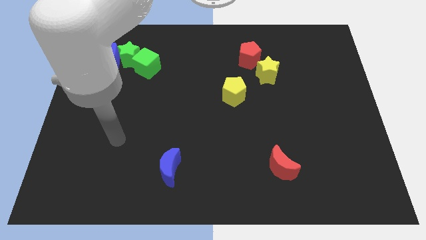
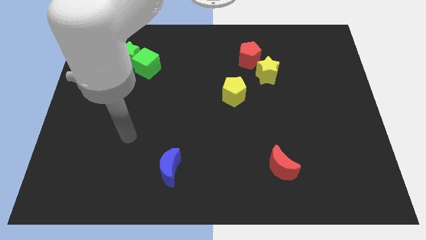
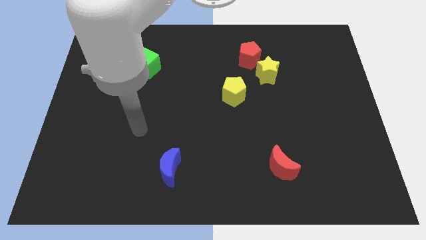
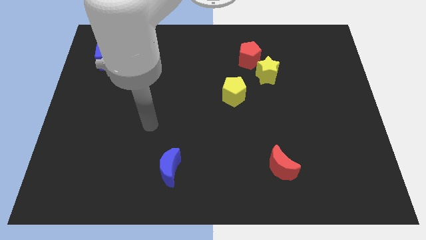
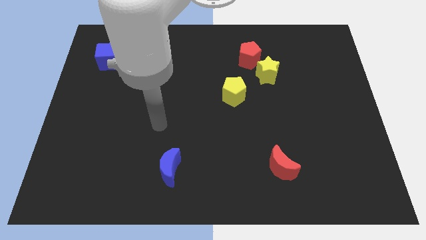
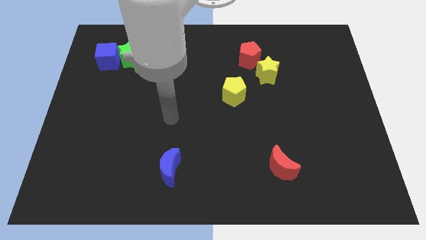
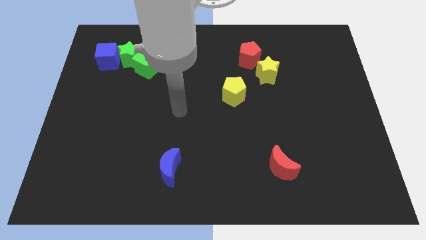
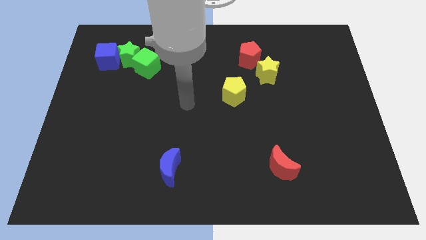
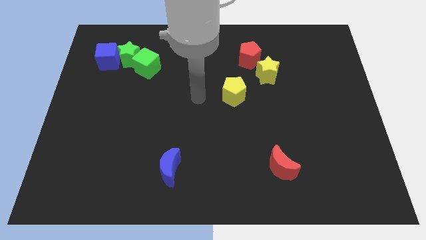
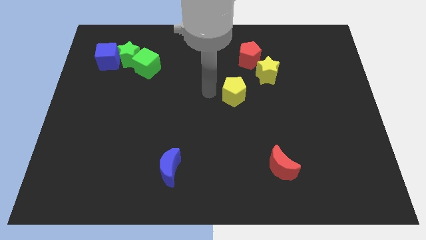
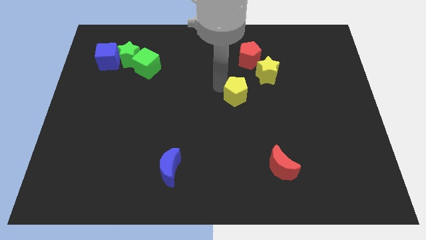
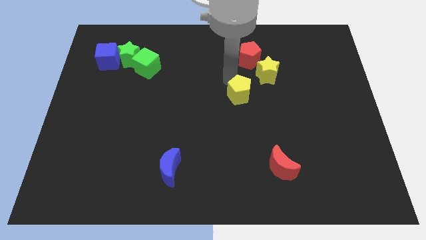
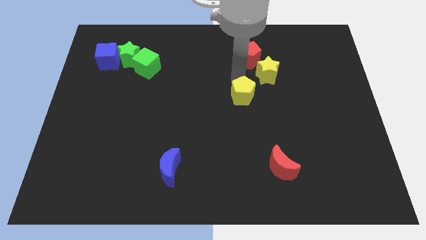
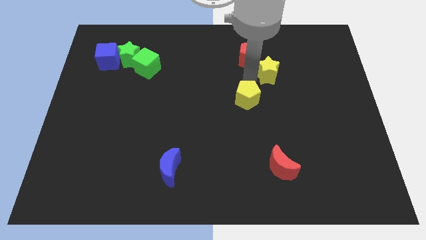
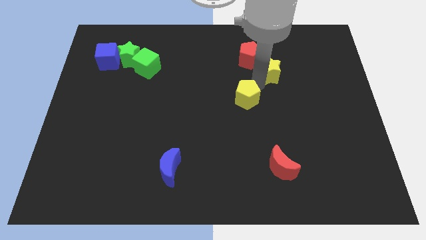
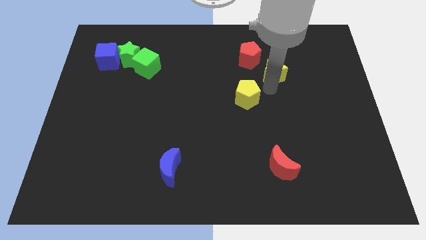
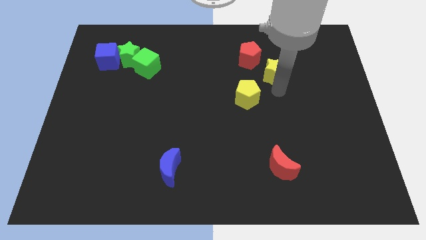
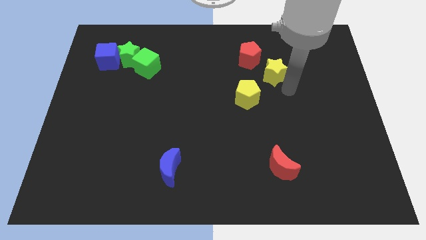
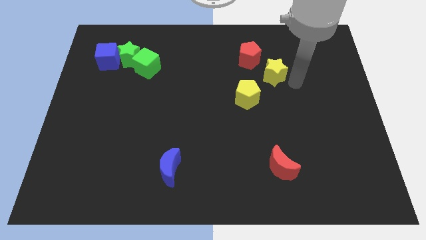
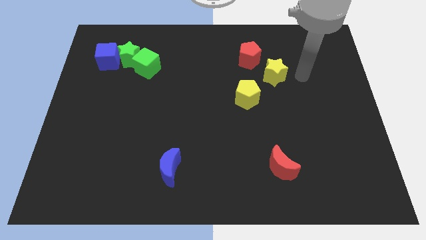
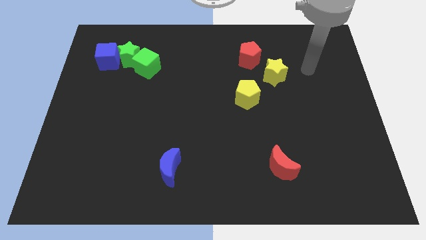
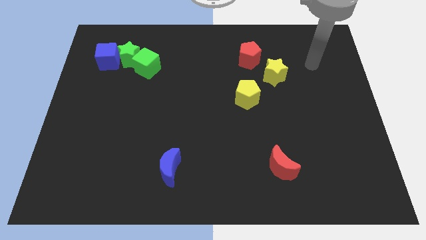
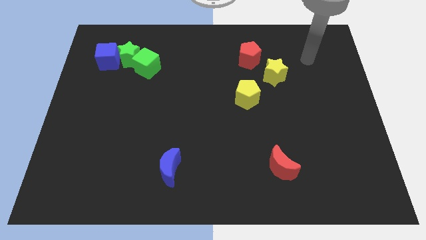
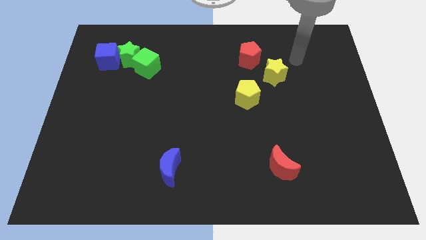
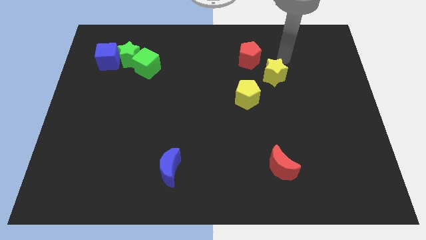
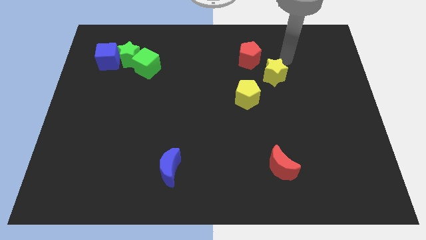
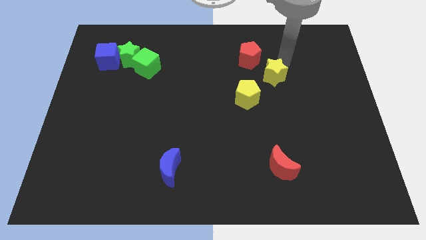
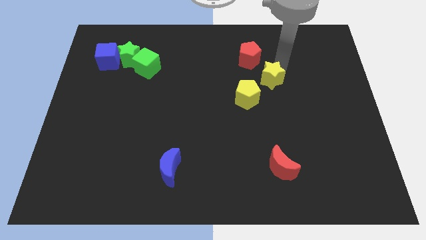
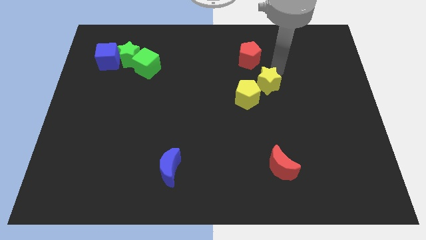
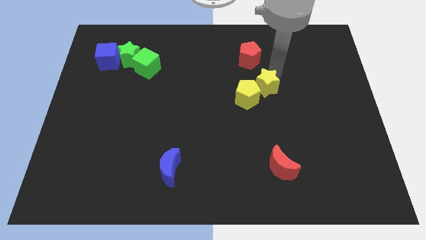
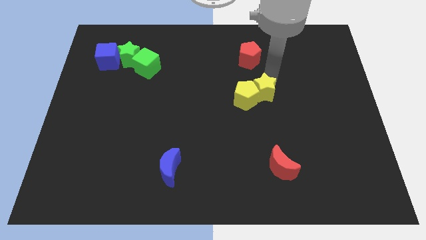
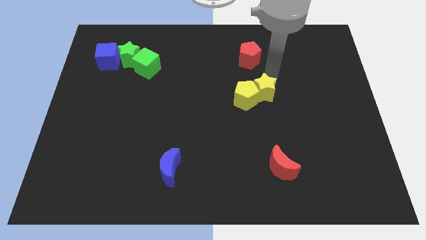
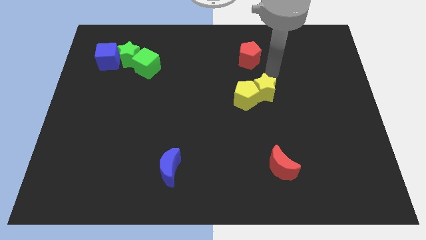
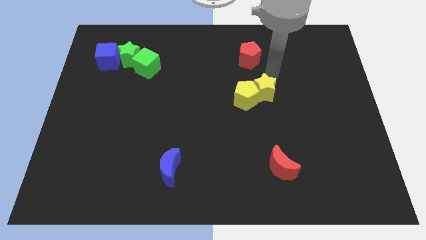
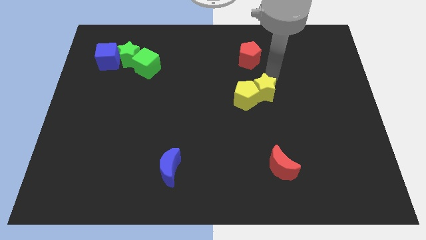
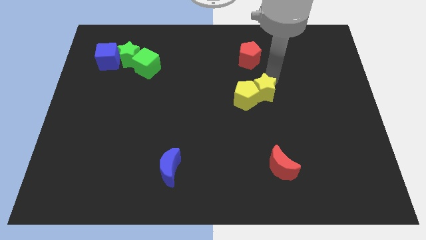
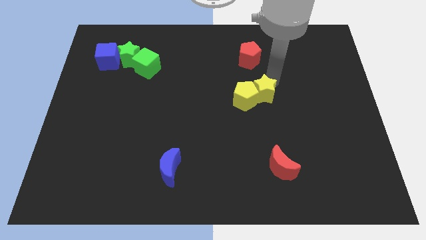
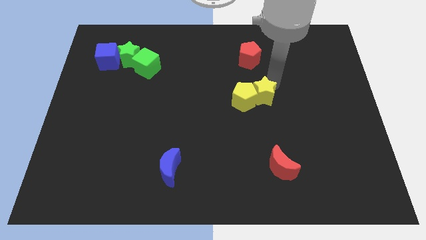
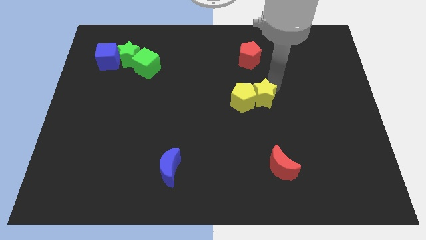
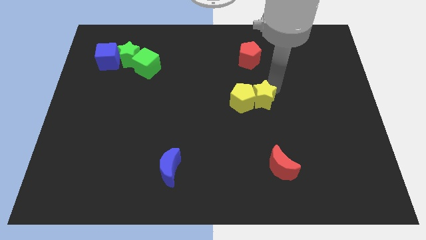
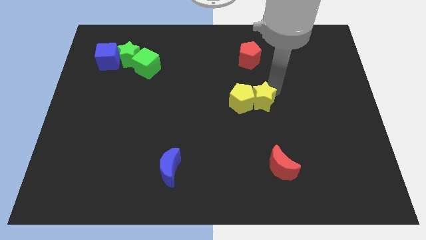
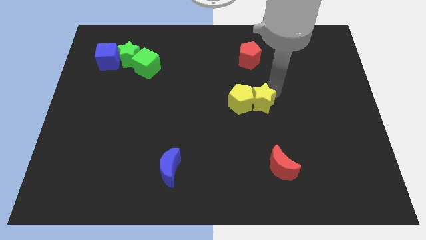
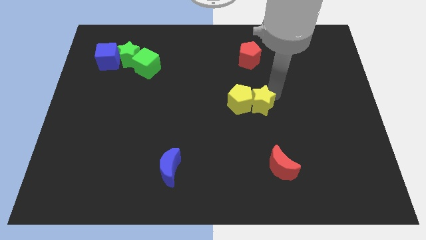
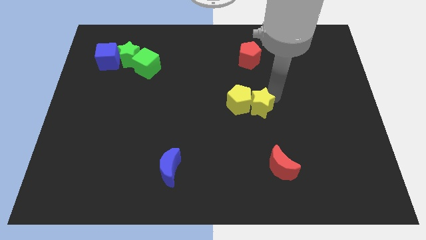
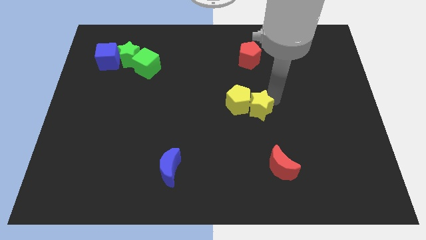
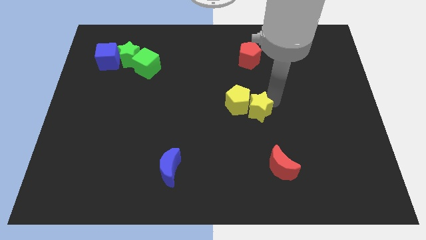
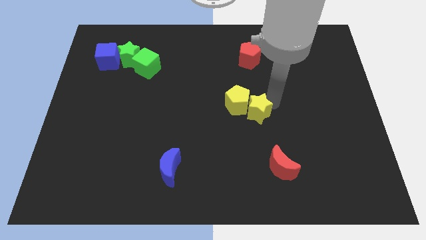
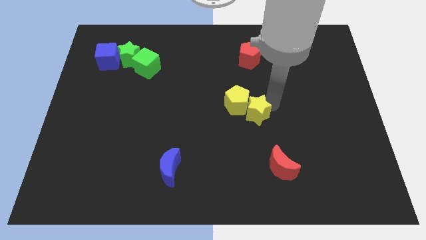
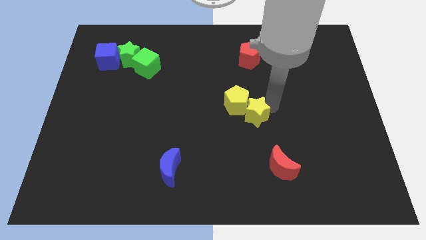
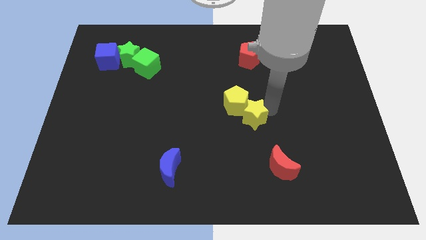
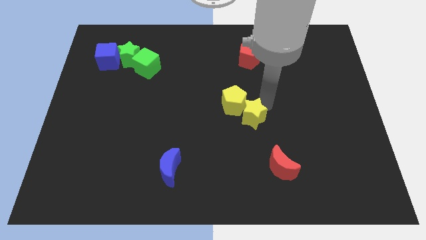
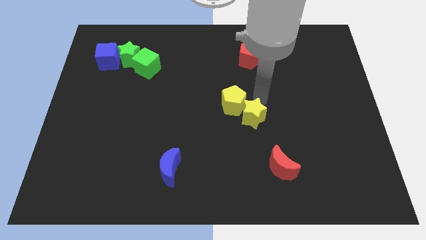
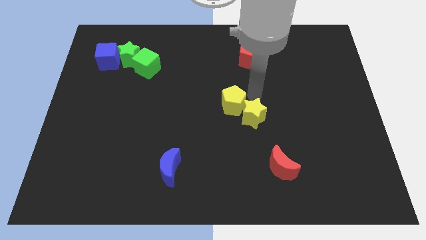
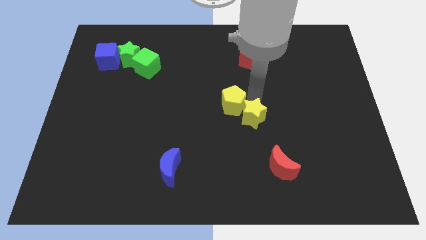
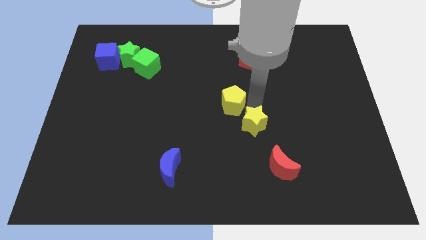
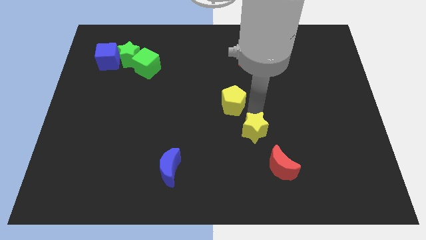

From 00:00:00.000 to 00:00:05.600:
put the yellow star diagonally up and to the left of the red moon

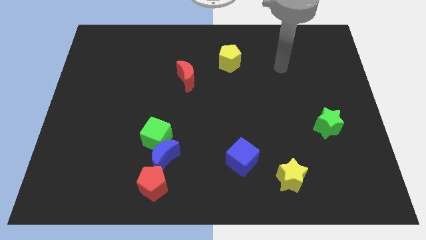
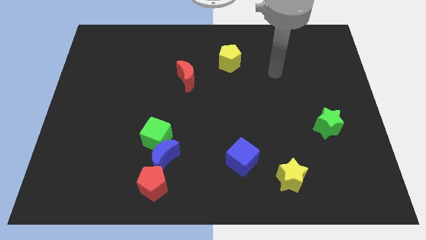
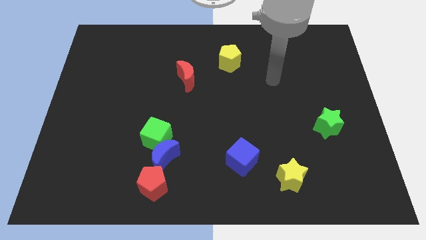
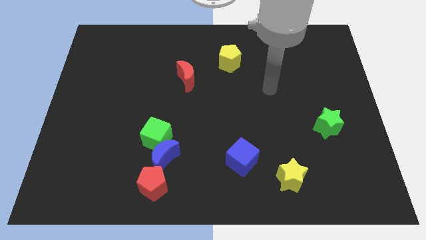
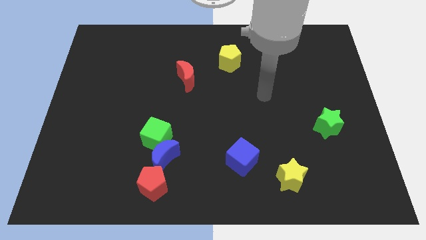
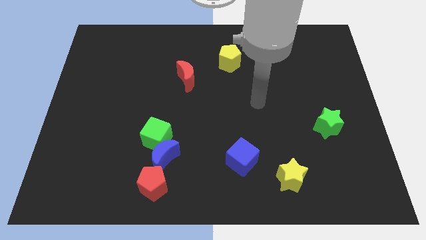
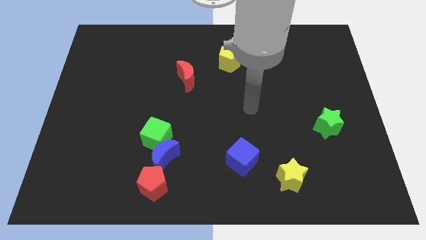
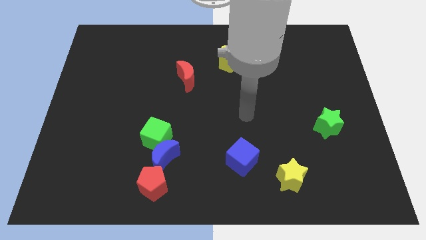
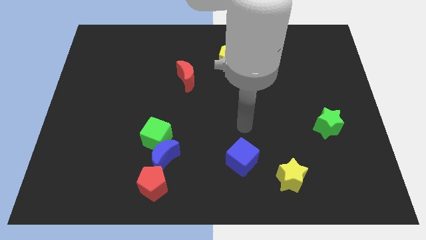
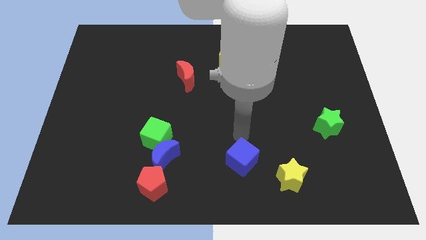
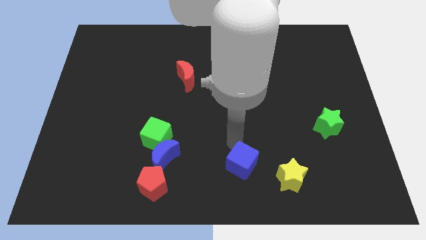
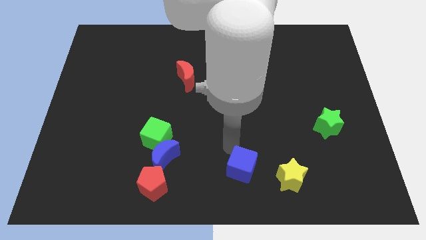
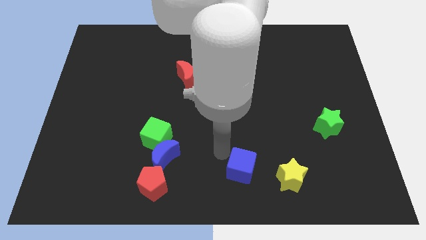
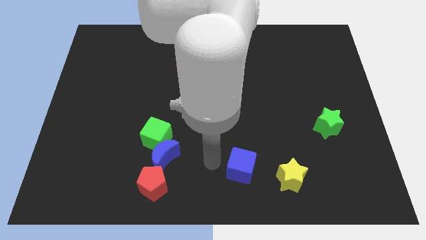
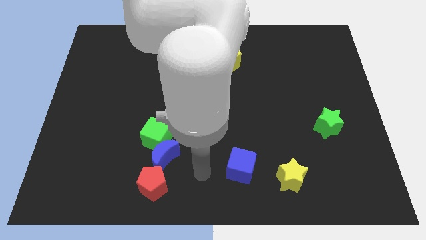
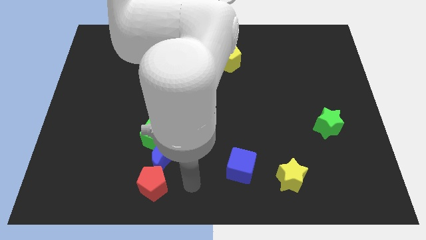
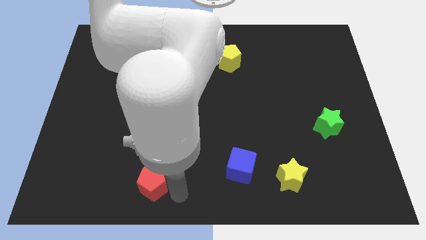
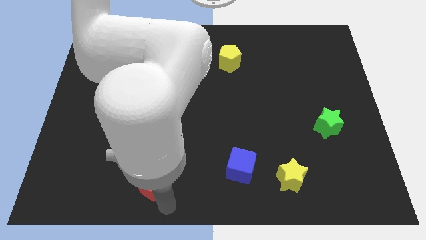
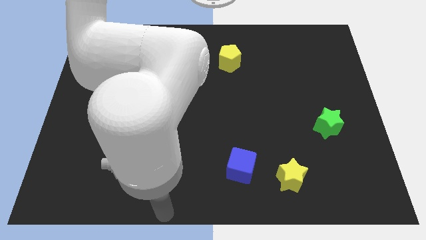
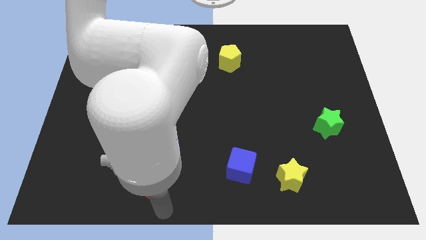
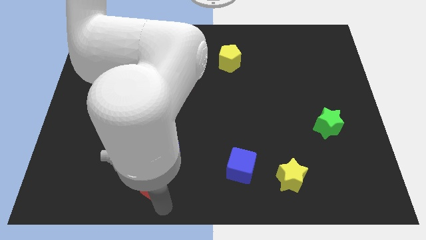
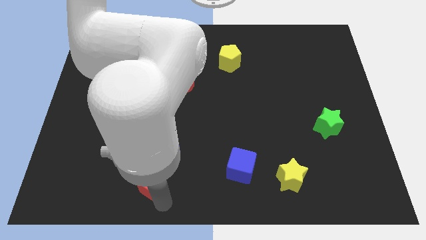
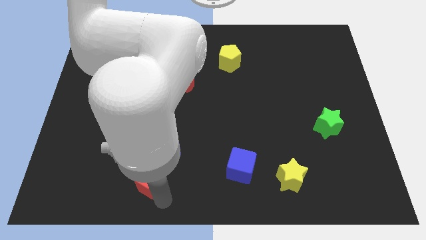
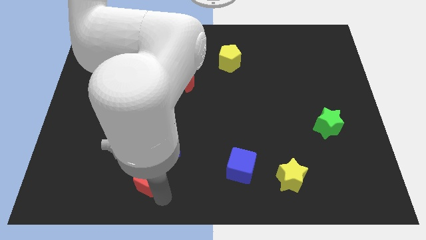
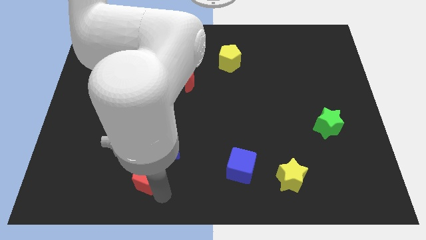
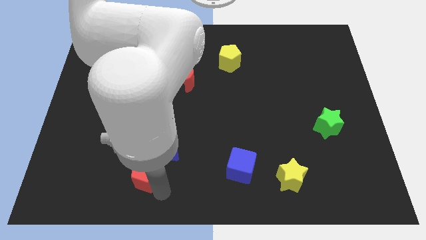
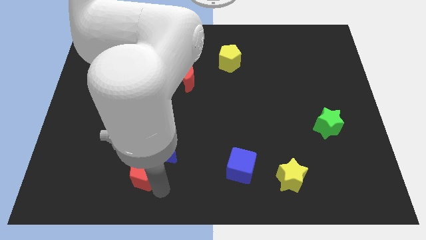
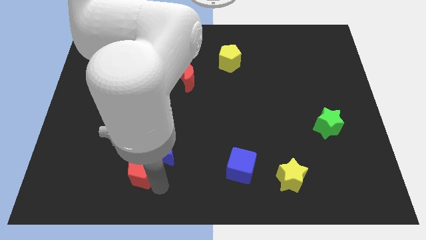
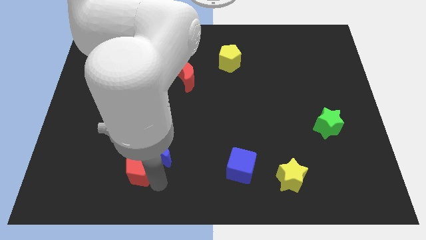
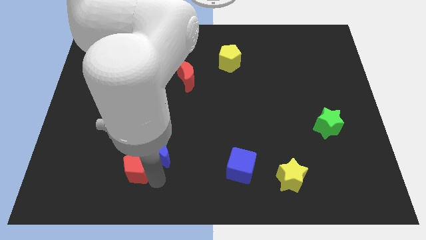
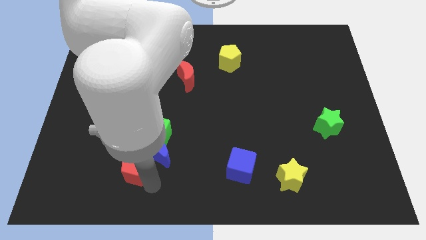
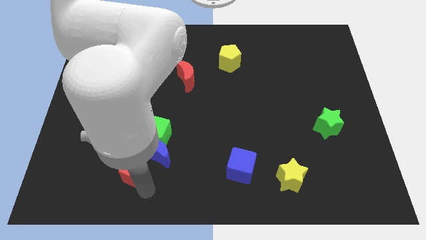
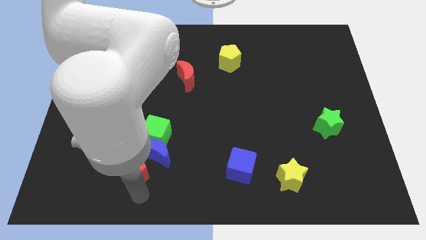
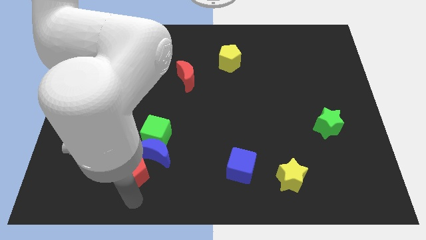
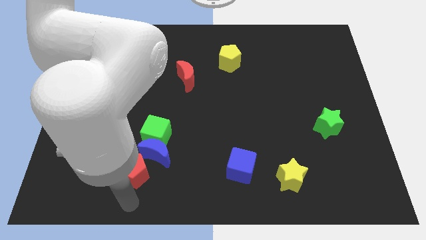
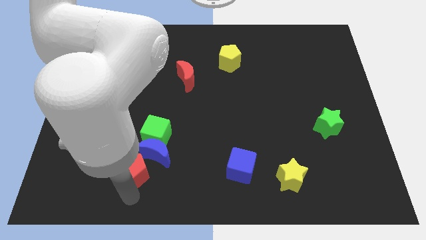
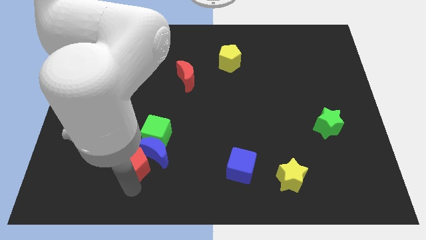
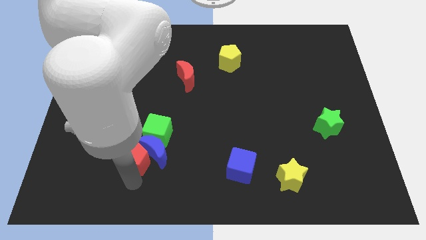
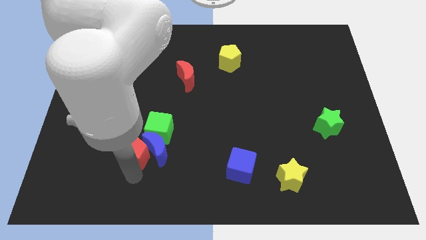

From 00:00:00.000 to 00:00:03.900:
put the red pentagon to the top left side of the blue moon
